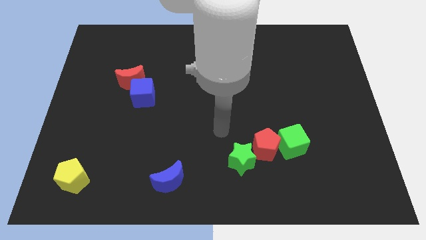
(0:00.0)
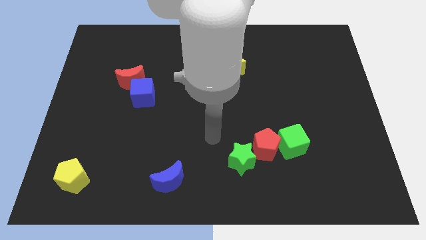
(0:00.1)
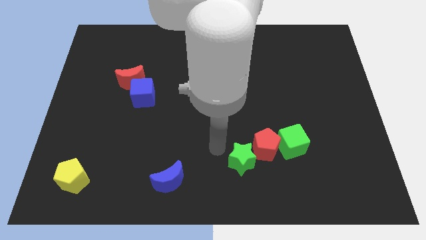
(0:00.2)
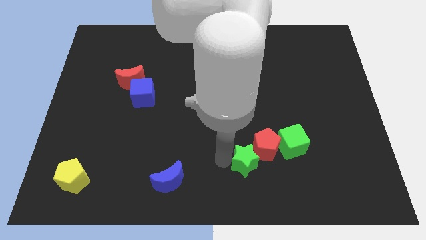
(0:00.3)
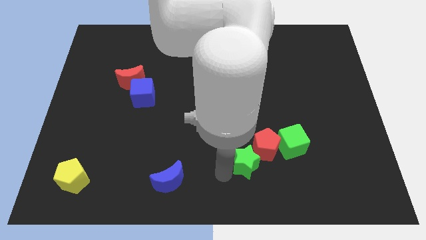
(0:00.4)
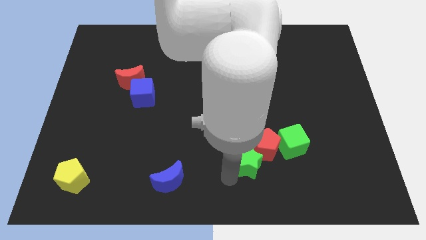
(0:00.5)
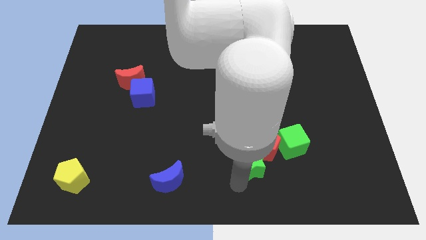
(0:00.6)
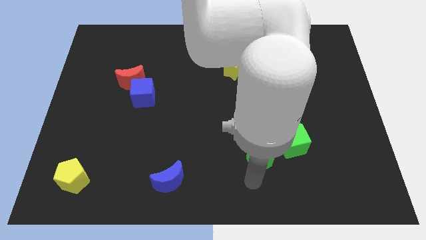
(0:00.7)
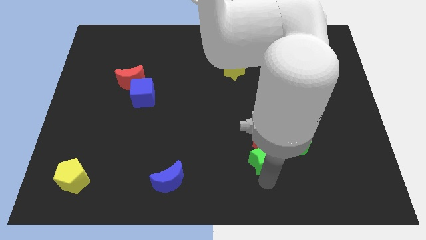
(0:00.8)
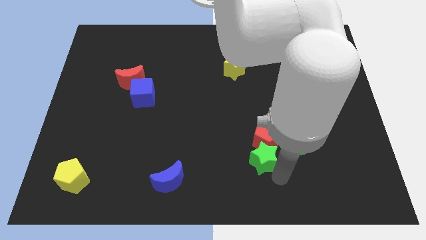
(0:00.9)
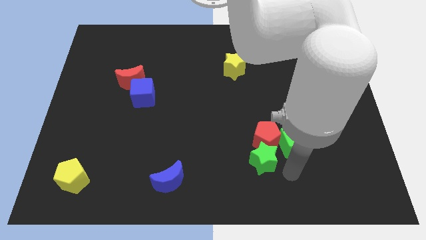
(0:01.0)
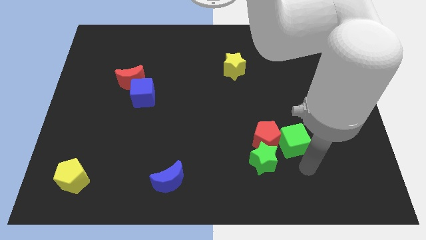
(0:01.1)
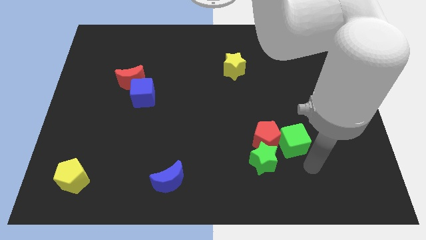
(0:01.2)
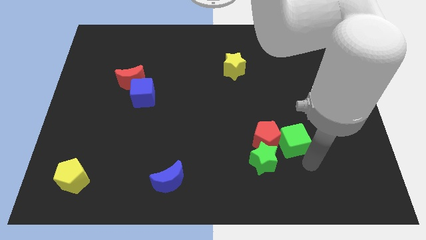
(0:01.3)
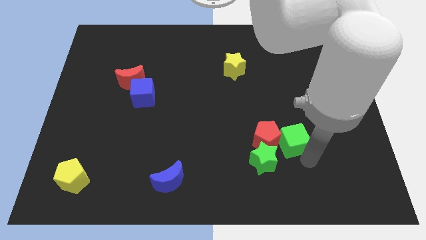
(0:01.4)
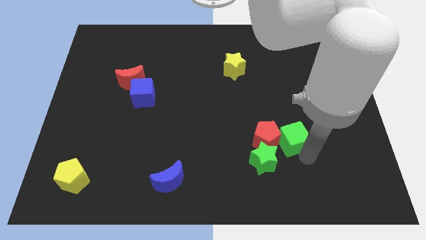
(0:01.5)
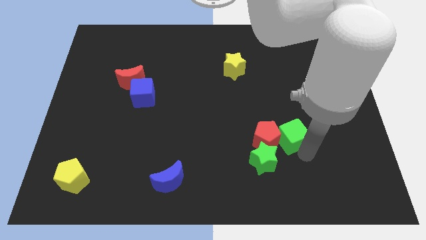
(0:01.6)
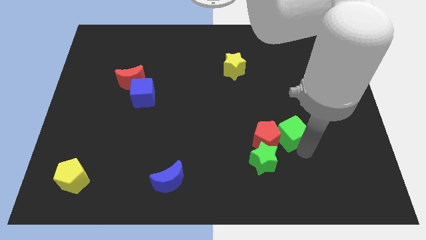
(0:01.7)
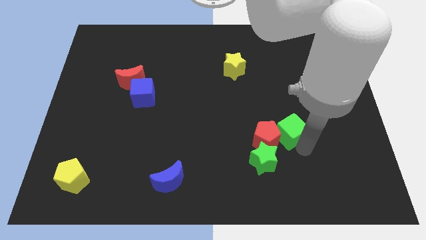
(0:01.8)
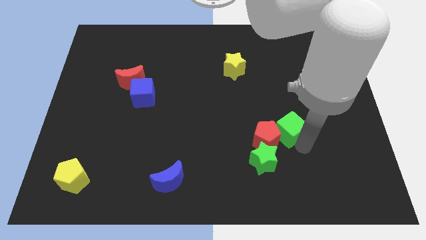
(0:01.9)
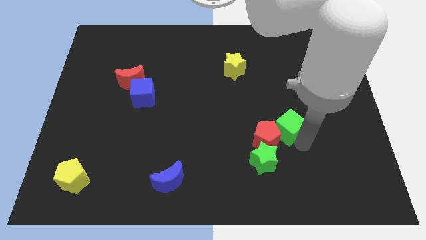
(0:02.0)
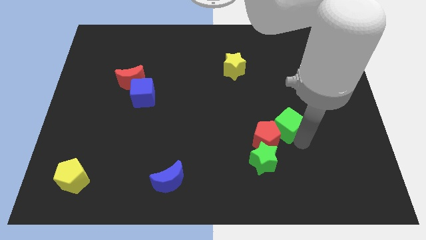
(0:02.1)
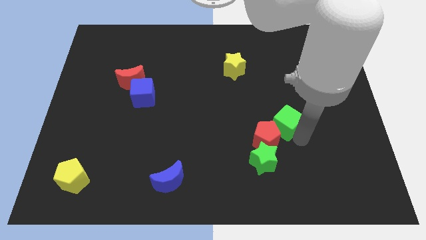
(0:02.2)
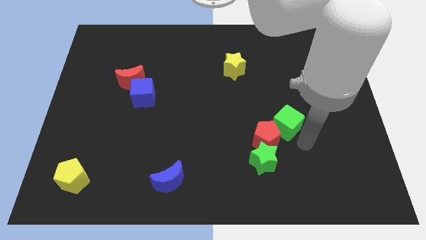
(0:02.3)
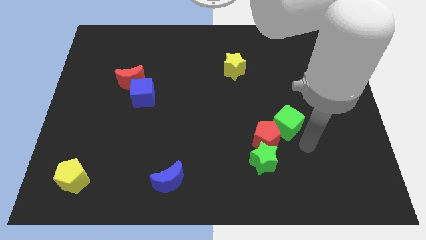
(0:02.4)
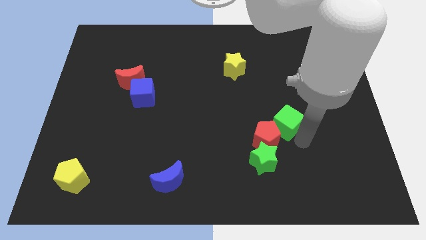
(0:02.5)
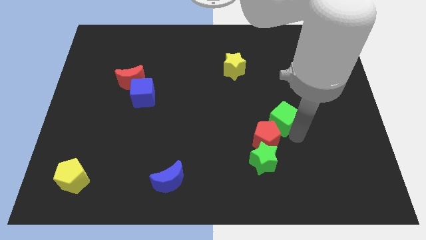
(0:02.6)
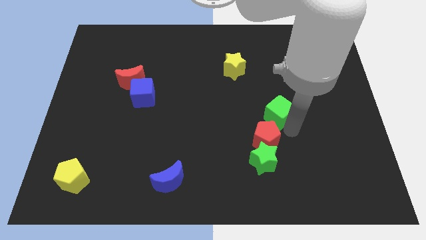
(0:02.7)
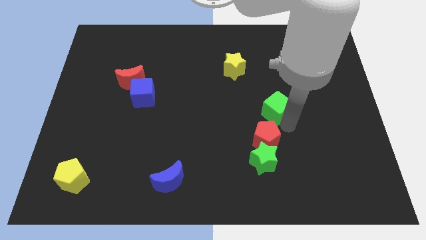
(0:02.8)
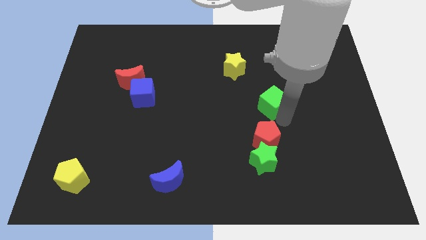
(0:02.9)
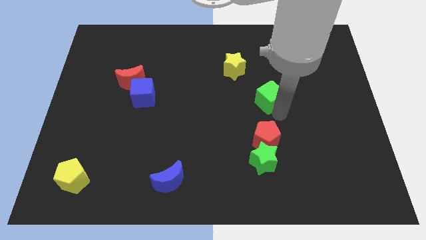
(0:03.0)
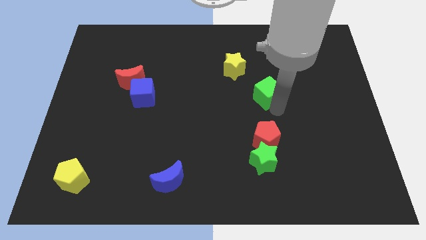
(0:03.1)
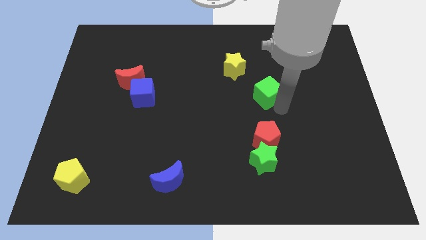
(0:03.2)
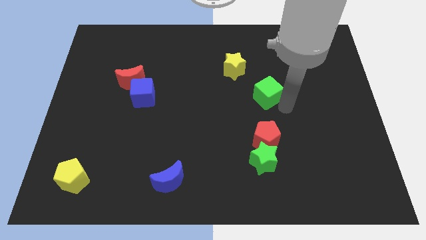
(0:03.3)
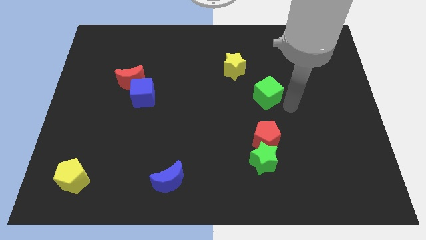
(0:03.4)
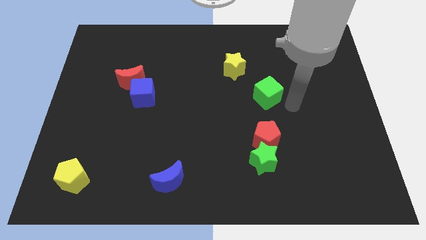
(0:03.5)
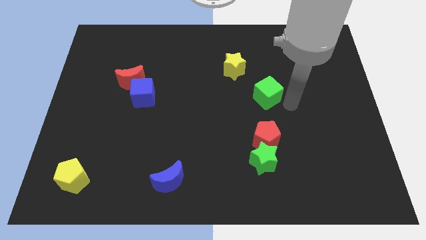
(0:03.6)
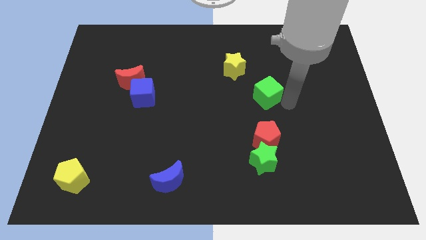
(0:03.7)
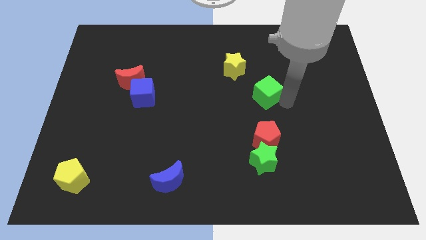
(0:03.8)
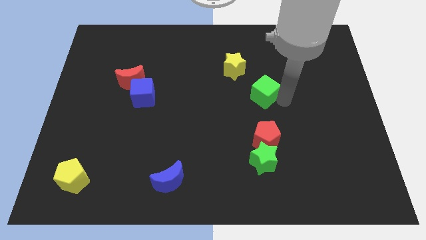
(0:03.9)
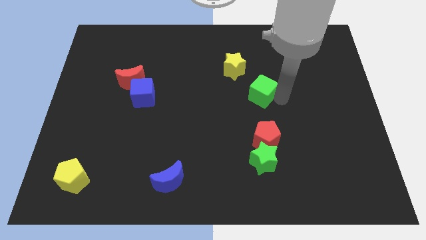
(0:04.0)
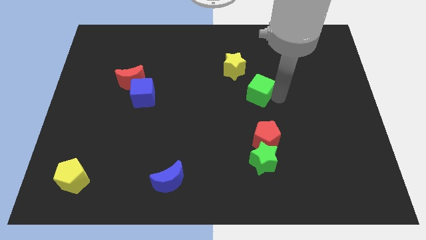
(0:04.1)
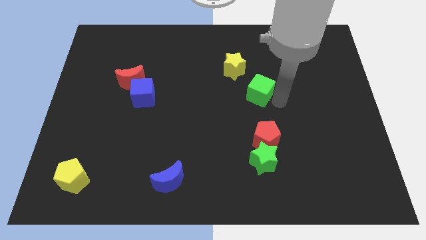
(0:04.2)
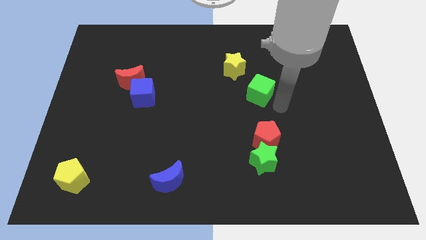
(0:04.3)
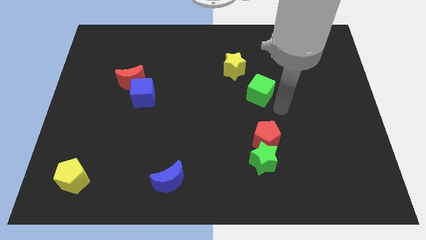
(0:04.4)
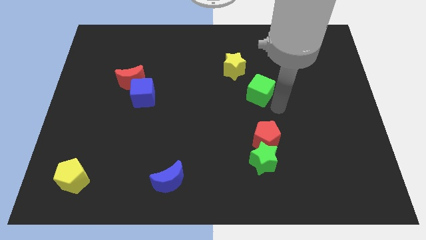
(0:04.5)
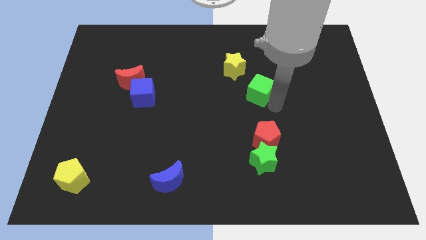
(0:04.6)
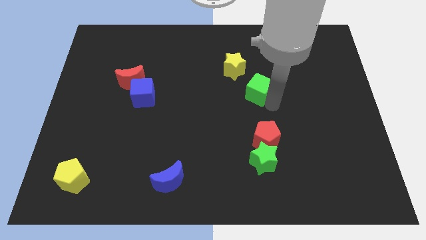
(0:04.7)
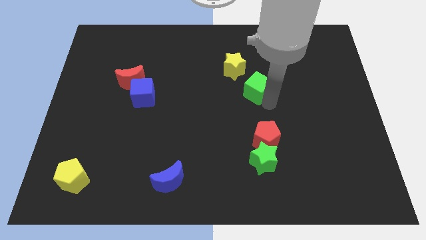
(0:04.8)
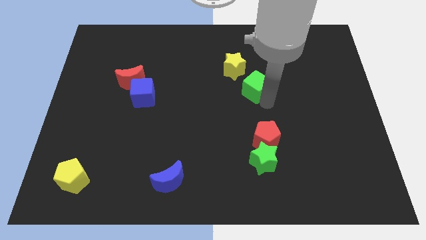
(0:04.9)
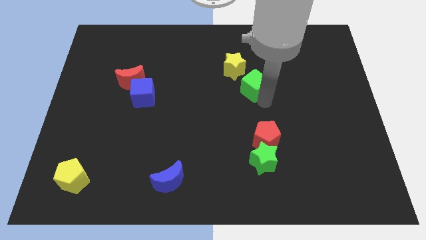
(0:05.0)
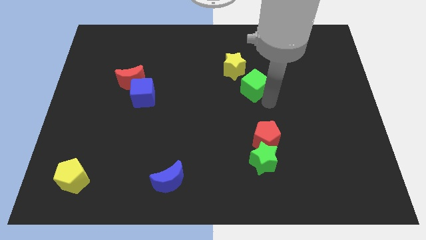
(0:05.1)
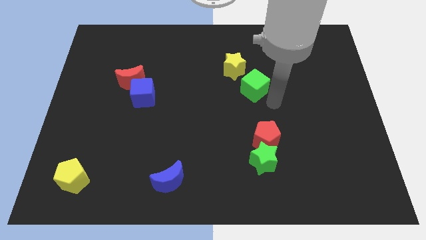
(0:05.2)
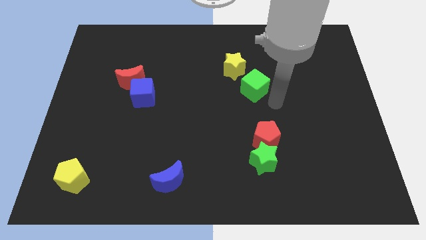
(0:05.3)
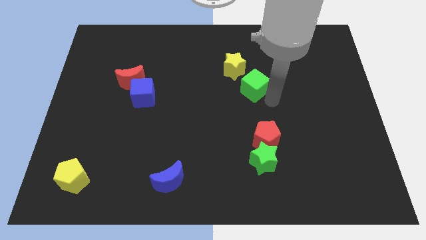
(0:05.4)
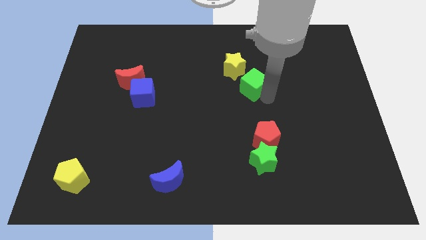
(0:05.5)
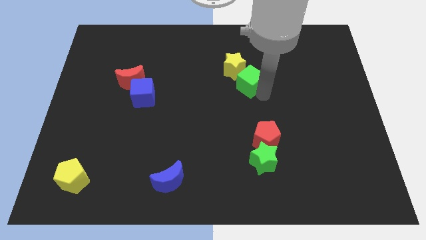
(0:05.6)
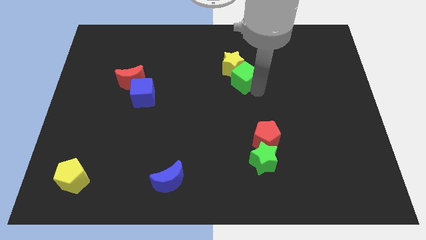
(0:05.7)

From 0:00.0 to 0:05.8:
push the green cube to the yellow star

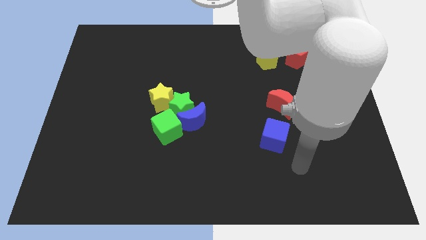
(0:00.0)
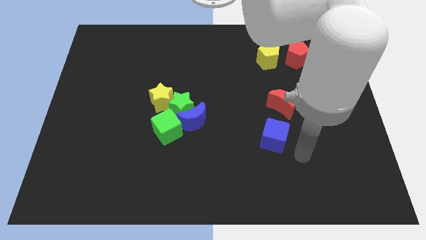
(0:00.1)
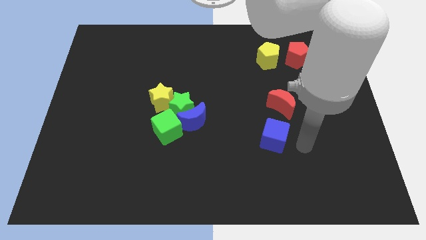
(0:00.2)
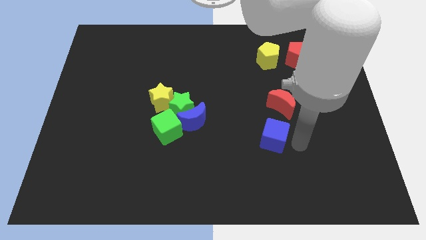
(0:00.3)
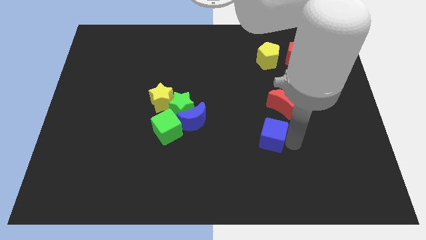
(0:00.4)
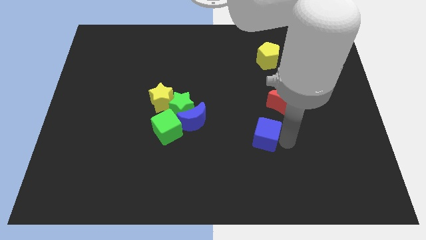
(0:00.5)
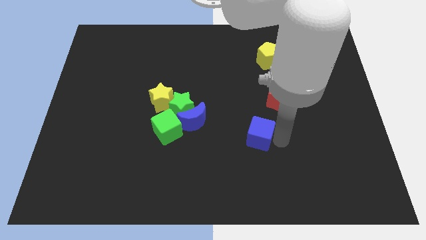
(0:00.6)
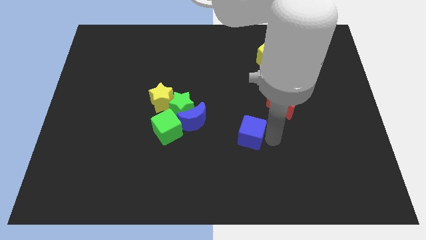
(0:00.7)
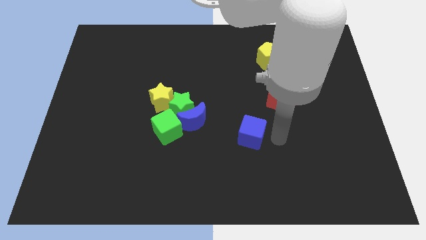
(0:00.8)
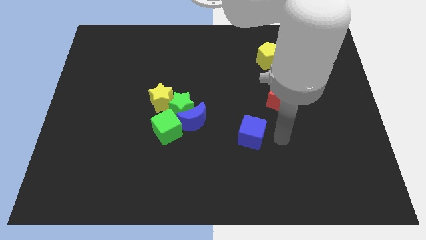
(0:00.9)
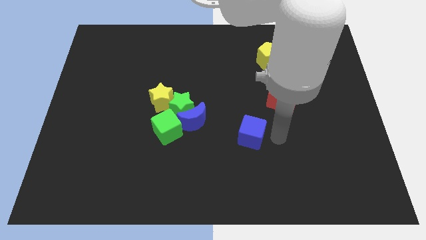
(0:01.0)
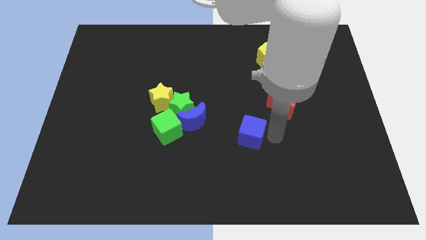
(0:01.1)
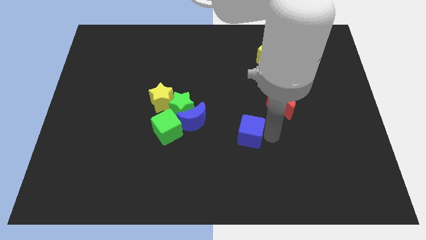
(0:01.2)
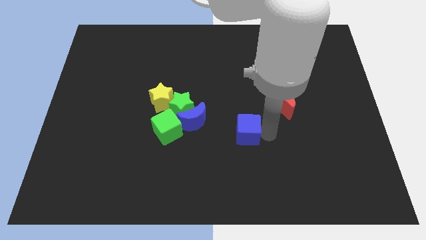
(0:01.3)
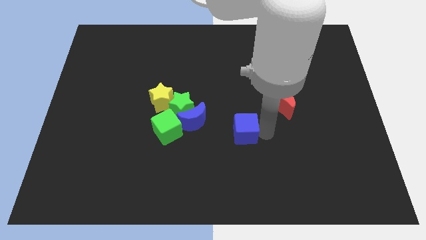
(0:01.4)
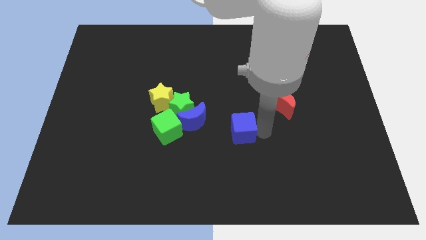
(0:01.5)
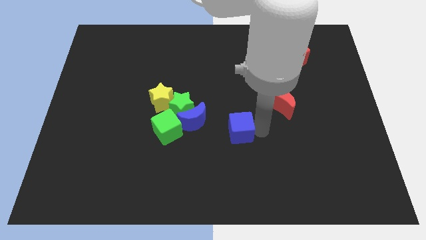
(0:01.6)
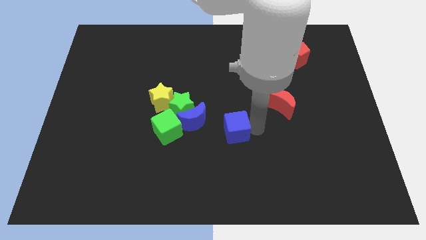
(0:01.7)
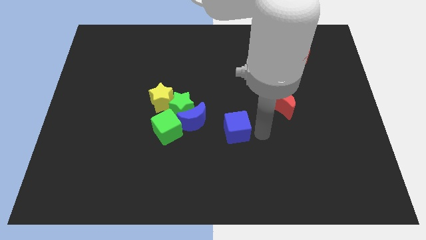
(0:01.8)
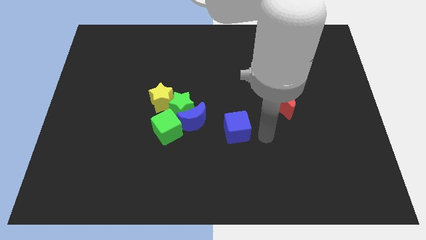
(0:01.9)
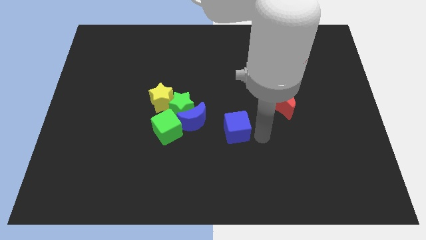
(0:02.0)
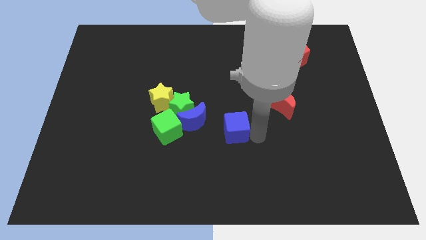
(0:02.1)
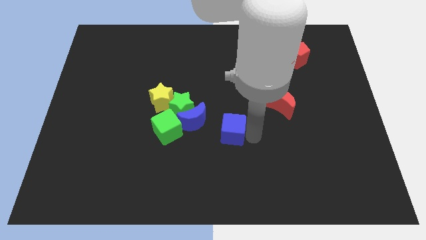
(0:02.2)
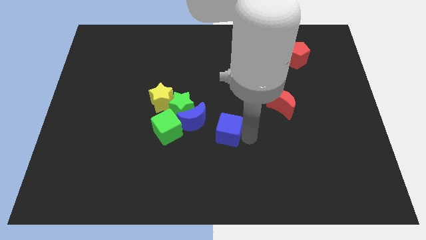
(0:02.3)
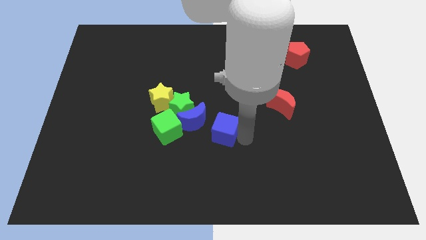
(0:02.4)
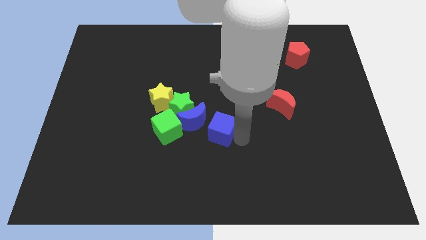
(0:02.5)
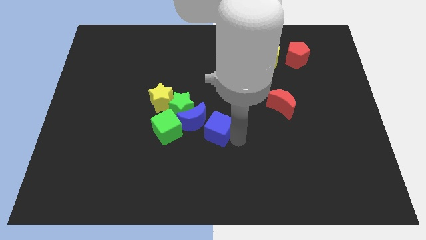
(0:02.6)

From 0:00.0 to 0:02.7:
push the blue cube next to the blue moon
